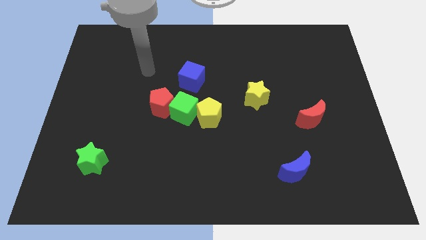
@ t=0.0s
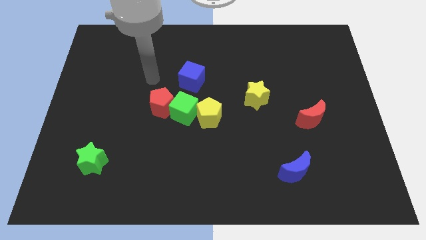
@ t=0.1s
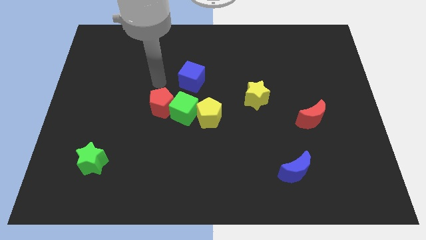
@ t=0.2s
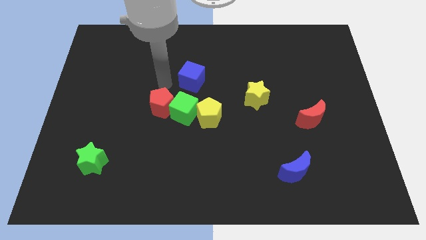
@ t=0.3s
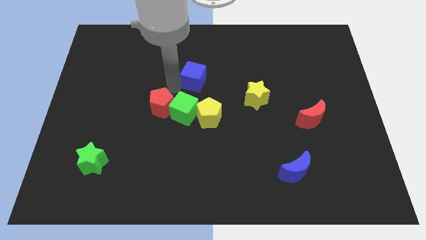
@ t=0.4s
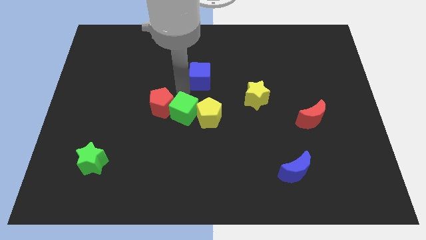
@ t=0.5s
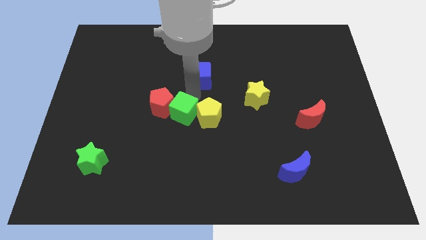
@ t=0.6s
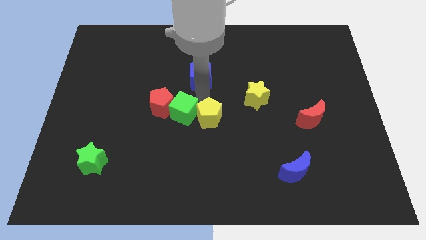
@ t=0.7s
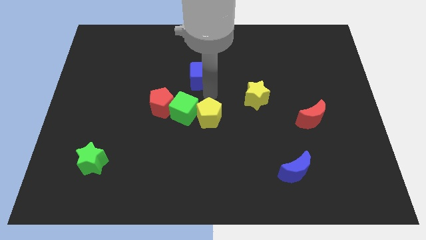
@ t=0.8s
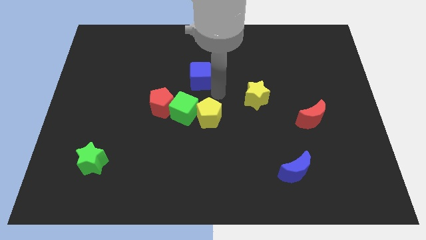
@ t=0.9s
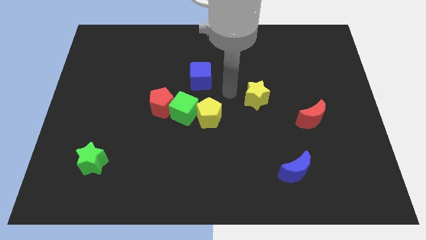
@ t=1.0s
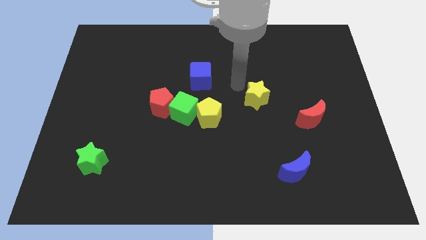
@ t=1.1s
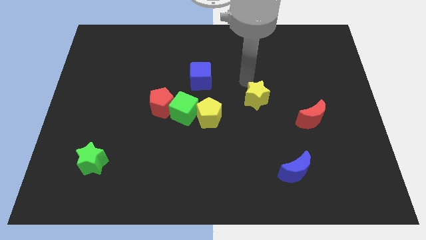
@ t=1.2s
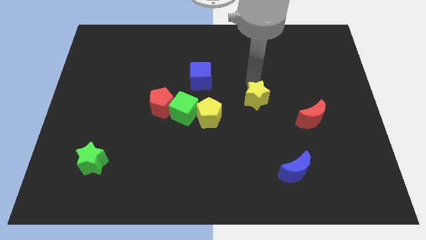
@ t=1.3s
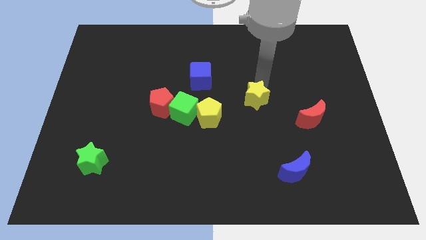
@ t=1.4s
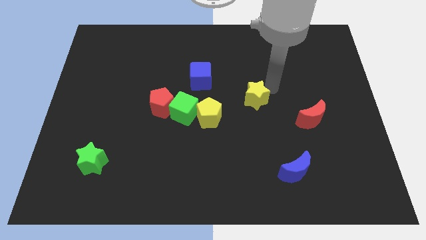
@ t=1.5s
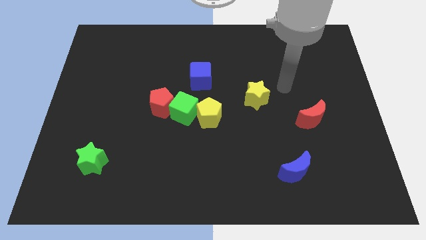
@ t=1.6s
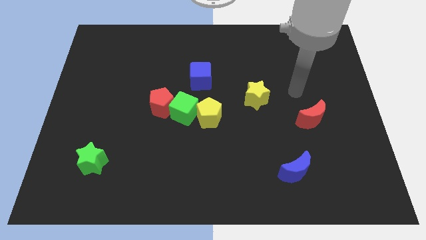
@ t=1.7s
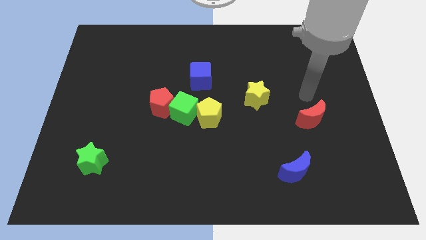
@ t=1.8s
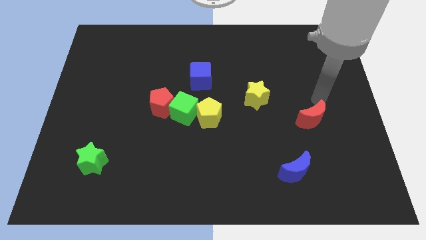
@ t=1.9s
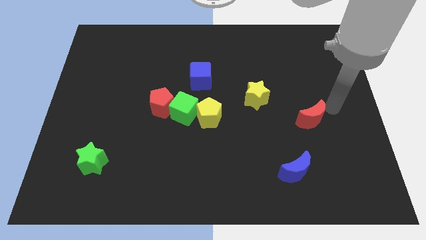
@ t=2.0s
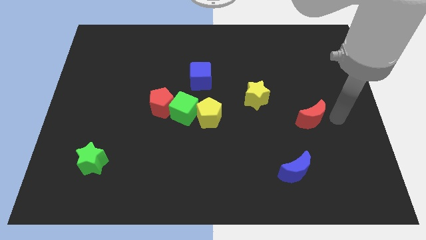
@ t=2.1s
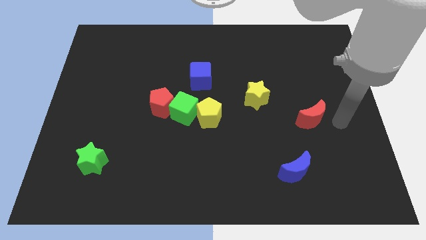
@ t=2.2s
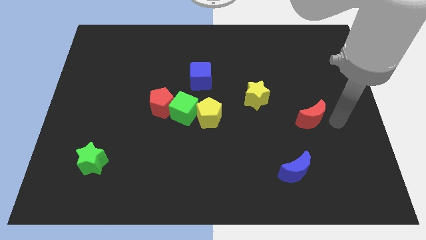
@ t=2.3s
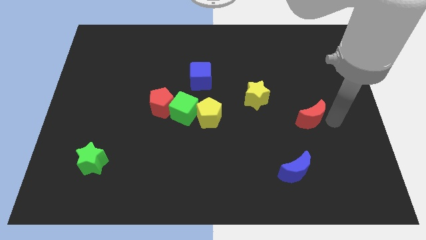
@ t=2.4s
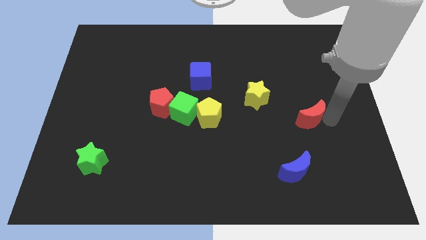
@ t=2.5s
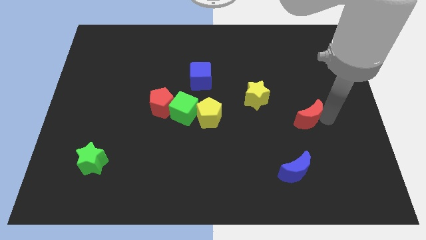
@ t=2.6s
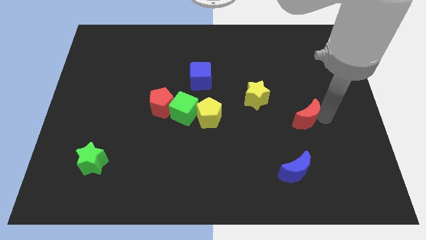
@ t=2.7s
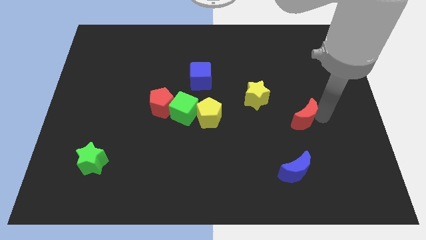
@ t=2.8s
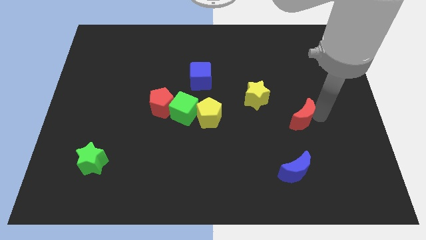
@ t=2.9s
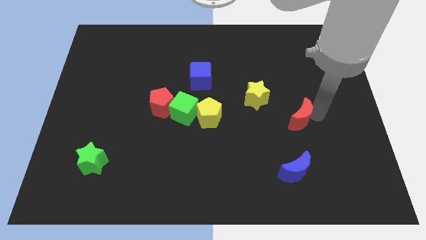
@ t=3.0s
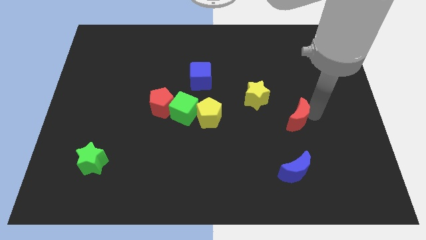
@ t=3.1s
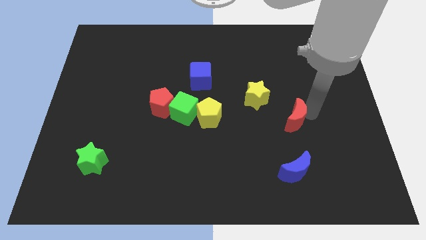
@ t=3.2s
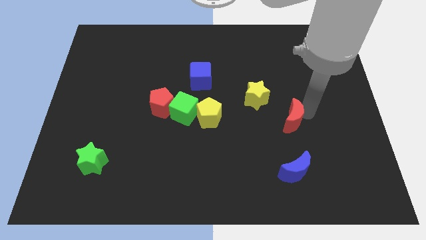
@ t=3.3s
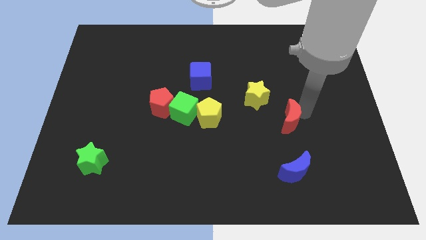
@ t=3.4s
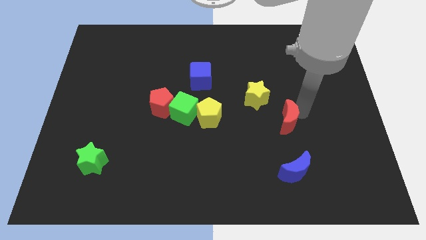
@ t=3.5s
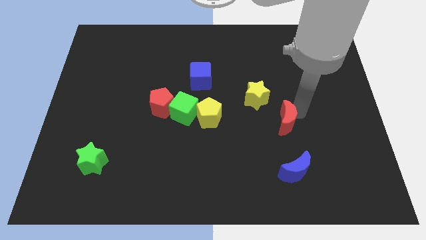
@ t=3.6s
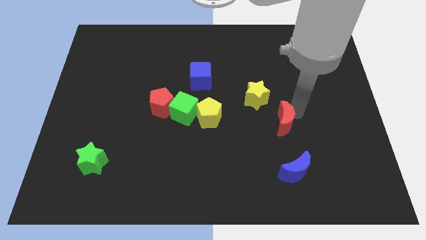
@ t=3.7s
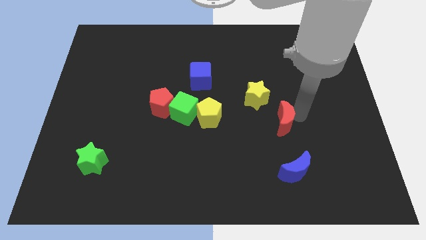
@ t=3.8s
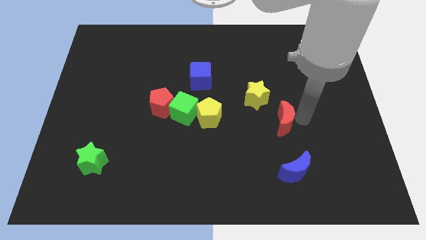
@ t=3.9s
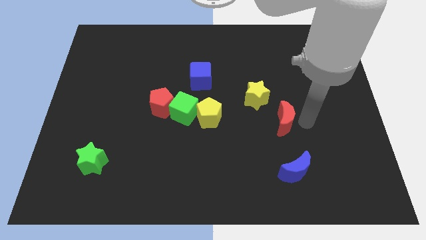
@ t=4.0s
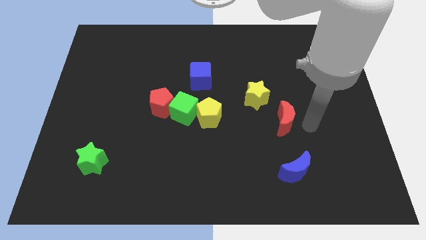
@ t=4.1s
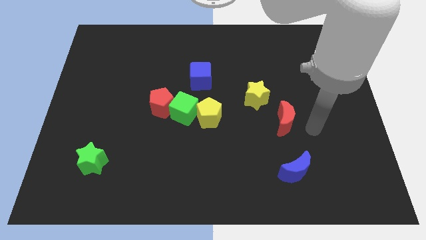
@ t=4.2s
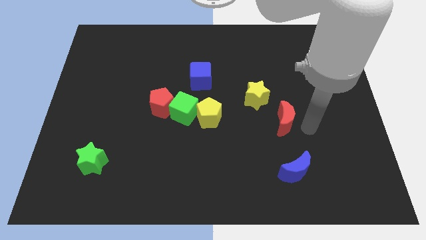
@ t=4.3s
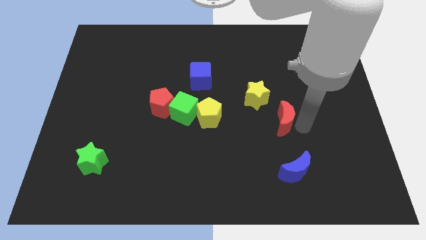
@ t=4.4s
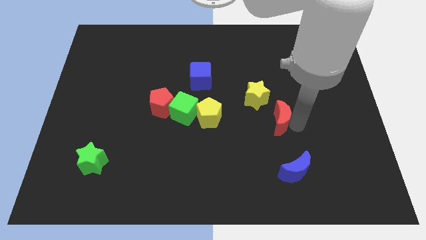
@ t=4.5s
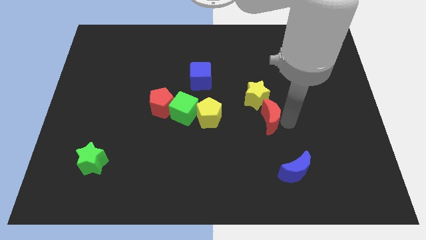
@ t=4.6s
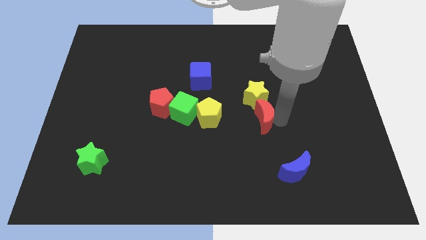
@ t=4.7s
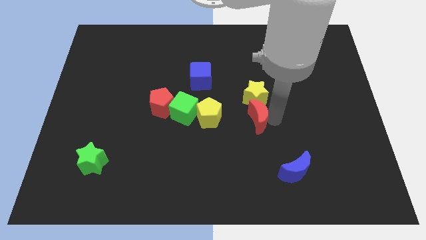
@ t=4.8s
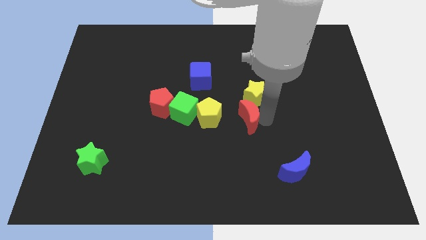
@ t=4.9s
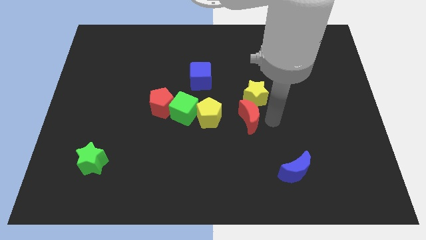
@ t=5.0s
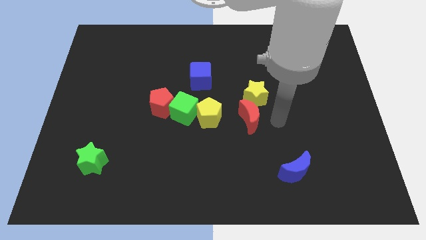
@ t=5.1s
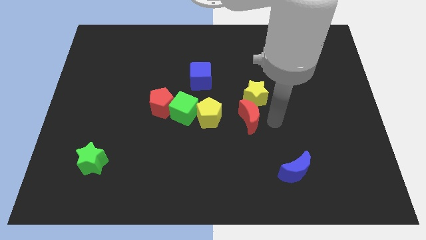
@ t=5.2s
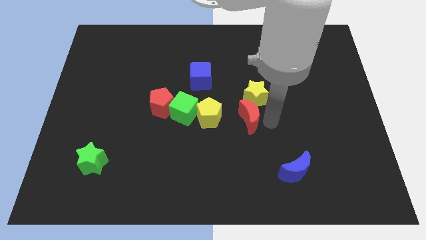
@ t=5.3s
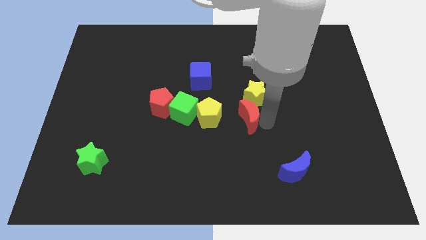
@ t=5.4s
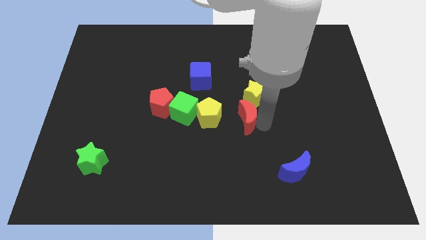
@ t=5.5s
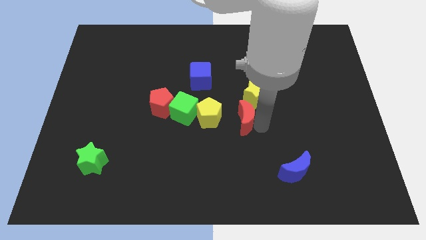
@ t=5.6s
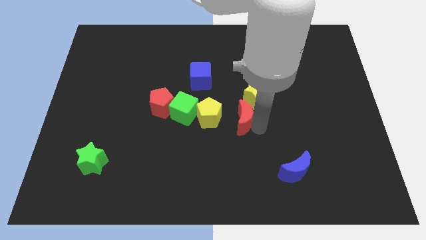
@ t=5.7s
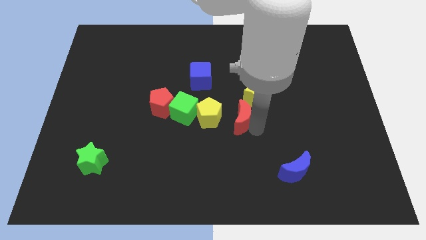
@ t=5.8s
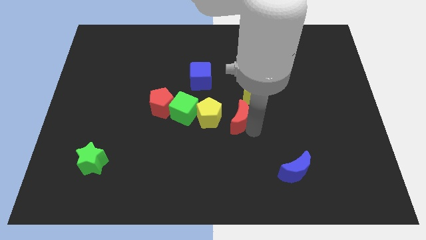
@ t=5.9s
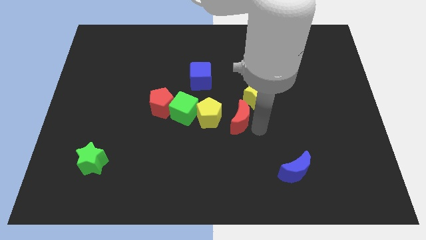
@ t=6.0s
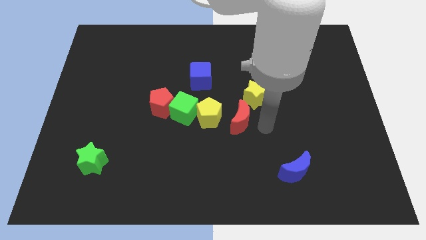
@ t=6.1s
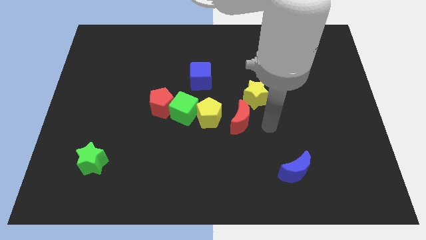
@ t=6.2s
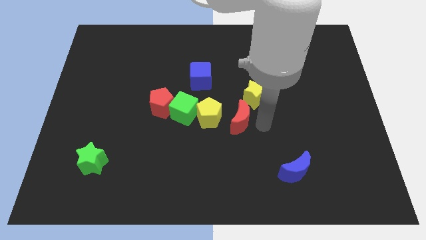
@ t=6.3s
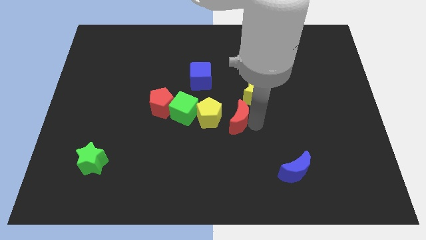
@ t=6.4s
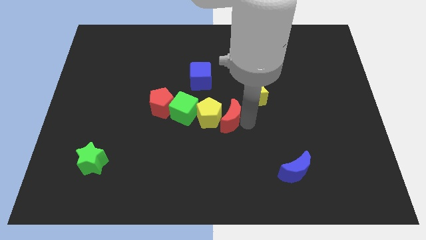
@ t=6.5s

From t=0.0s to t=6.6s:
push the red moon next to the yellow pentagon
